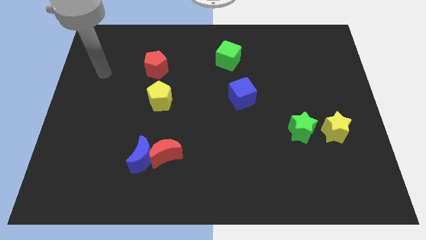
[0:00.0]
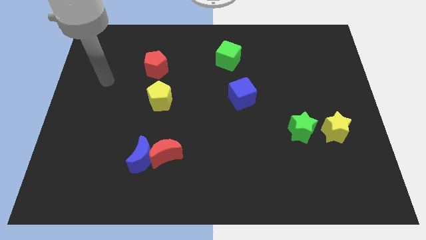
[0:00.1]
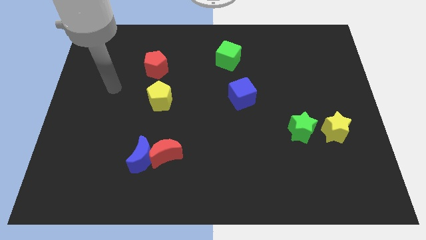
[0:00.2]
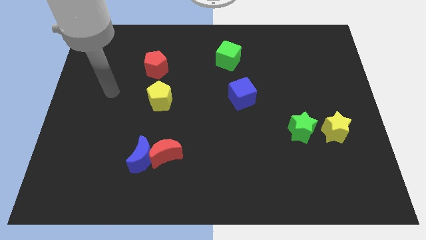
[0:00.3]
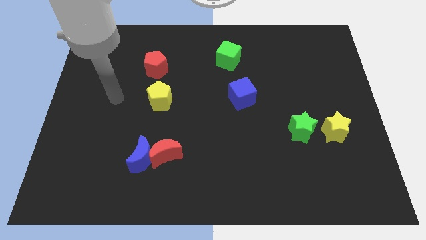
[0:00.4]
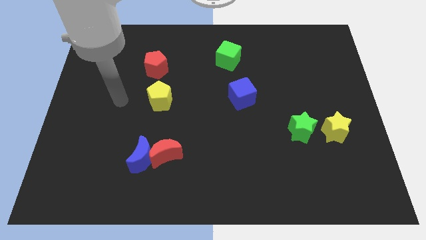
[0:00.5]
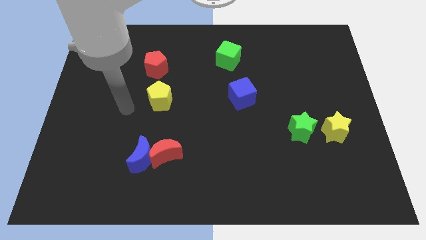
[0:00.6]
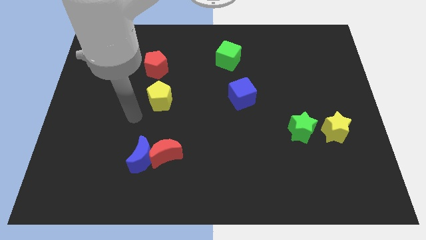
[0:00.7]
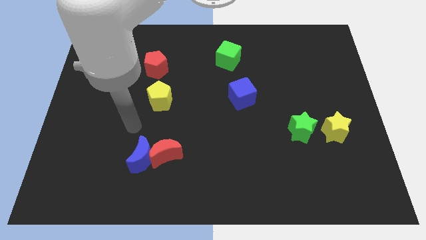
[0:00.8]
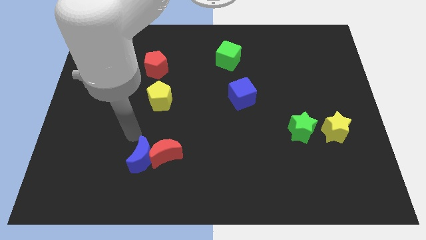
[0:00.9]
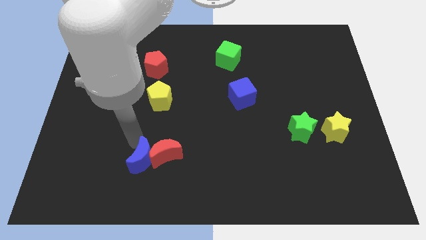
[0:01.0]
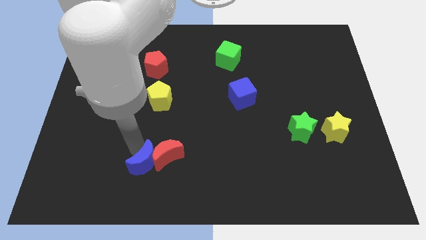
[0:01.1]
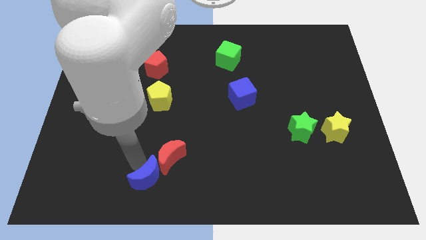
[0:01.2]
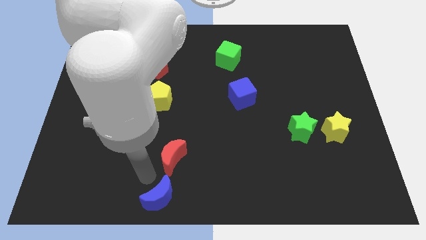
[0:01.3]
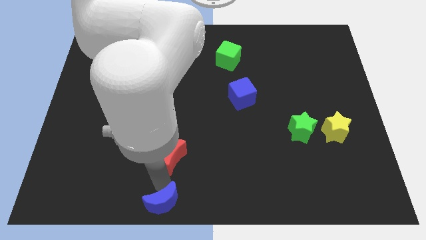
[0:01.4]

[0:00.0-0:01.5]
move the red moon away from the blue moon

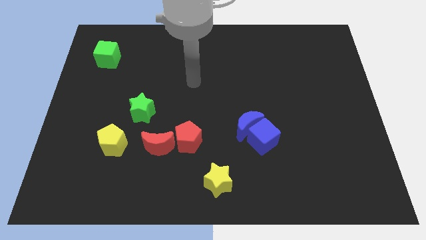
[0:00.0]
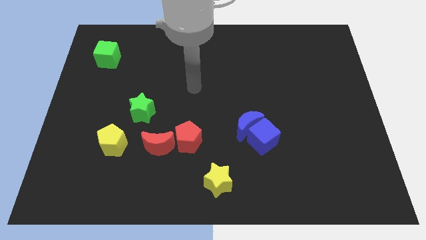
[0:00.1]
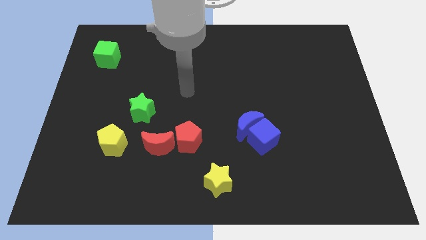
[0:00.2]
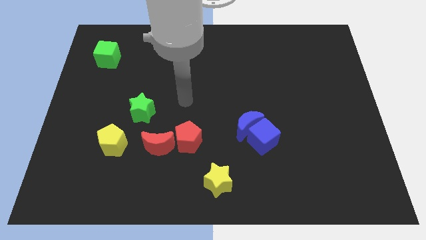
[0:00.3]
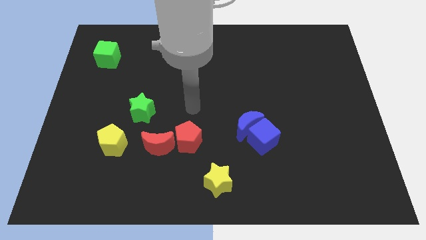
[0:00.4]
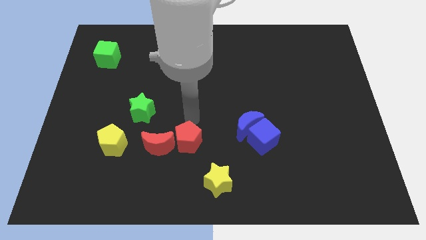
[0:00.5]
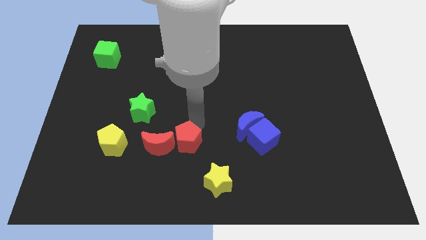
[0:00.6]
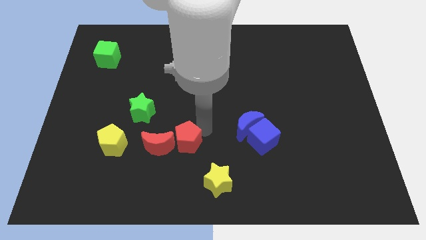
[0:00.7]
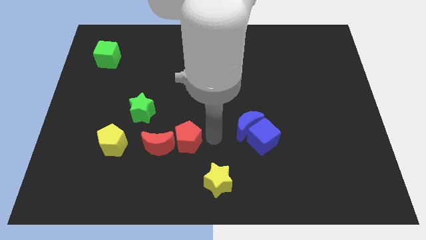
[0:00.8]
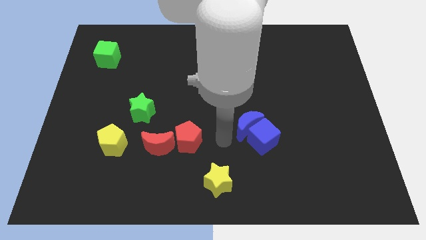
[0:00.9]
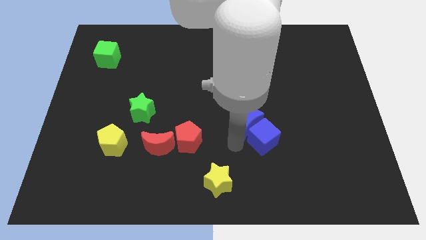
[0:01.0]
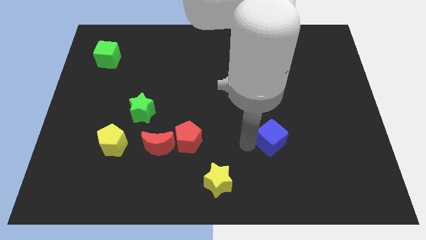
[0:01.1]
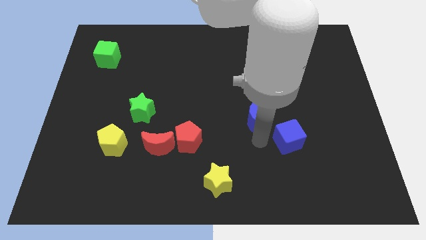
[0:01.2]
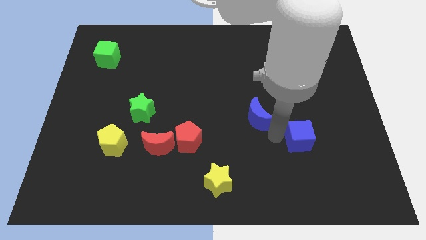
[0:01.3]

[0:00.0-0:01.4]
separate the blue moon from the blue cube

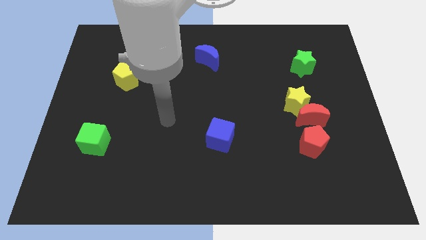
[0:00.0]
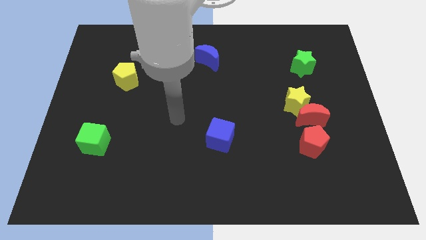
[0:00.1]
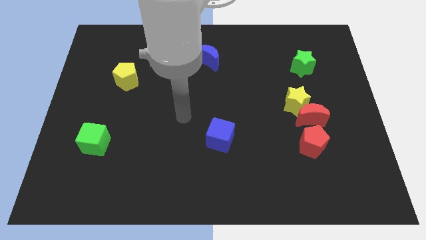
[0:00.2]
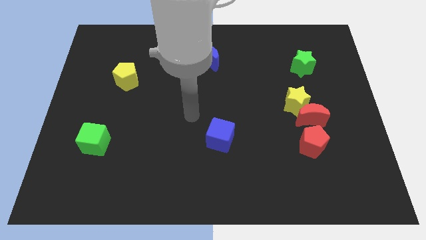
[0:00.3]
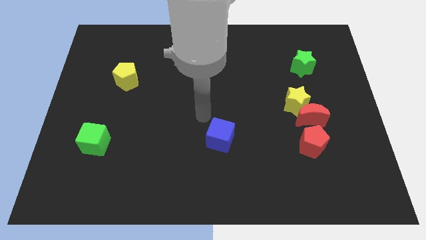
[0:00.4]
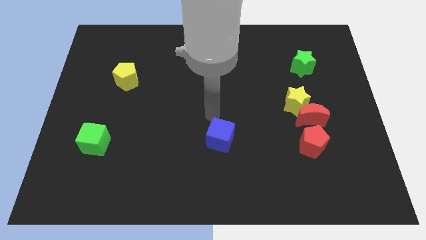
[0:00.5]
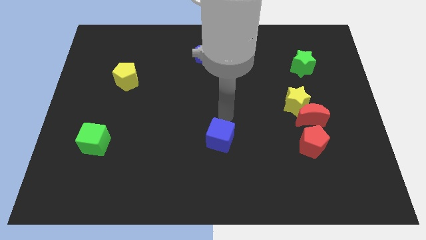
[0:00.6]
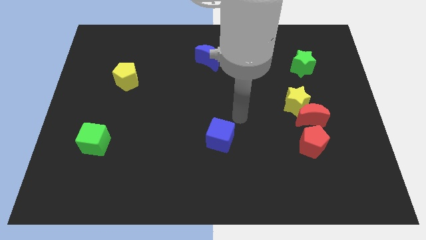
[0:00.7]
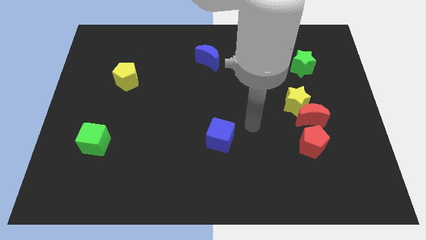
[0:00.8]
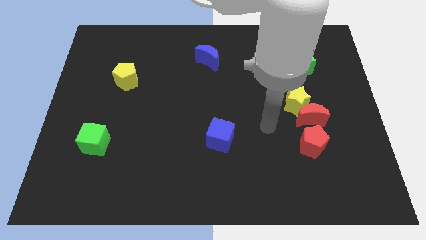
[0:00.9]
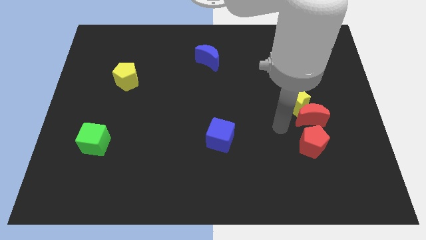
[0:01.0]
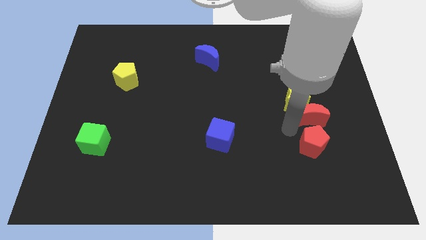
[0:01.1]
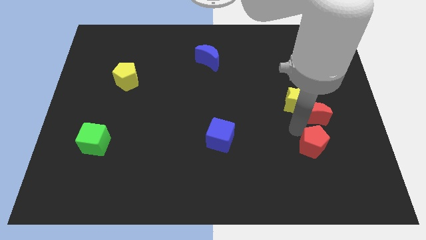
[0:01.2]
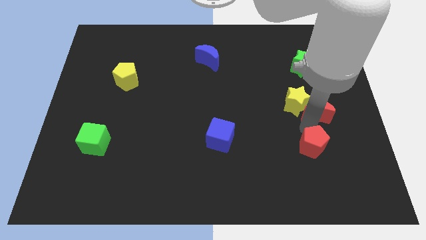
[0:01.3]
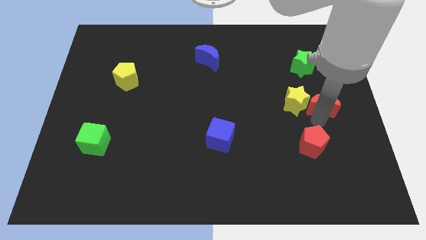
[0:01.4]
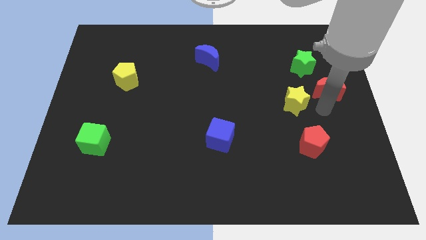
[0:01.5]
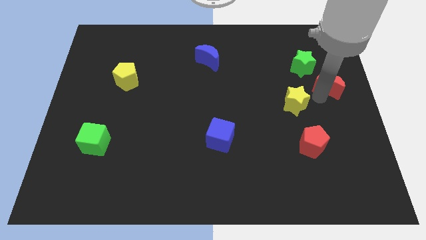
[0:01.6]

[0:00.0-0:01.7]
separate the yellow star from the red moon

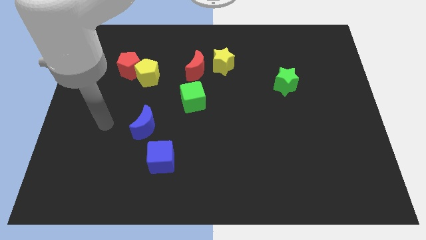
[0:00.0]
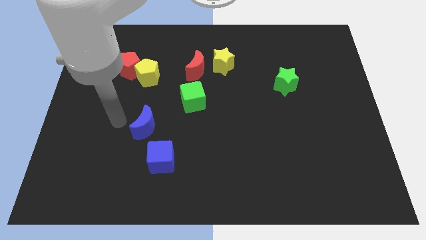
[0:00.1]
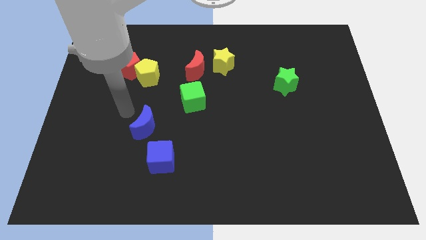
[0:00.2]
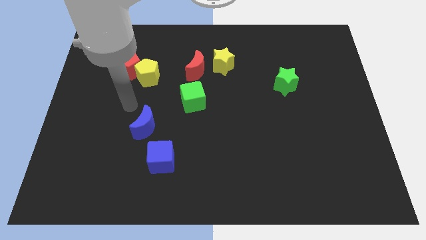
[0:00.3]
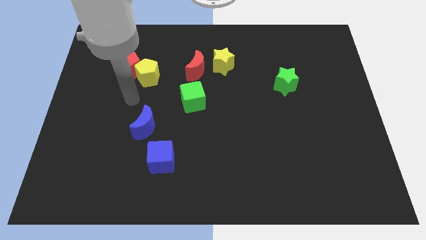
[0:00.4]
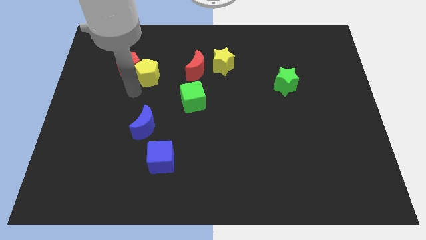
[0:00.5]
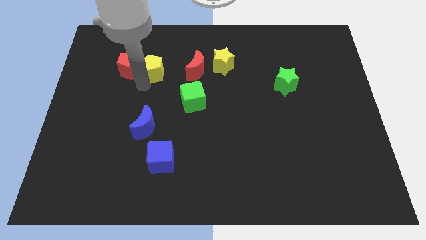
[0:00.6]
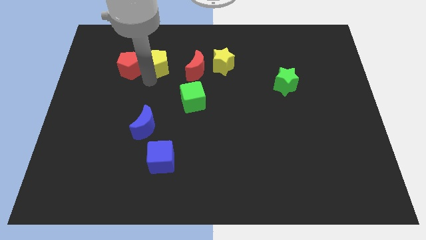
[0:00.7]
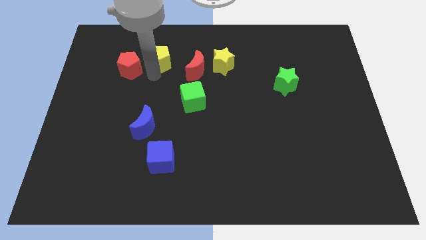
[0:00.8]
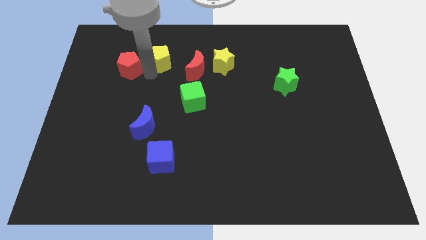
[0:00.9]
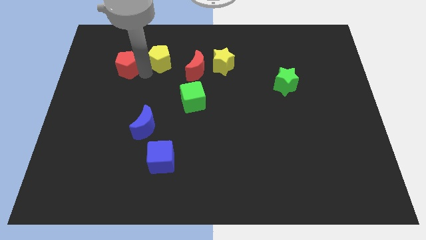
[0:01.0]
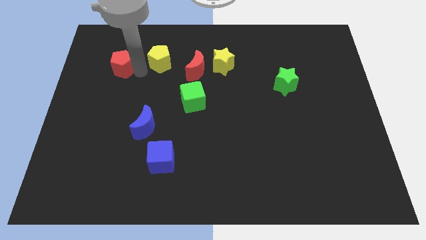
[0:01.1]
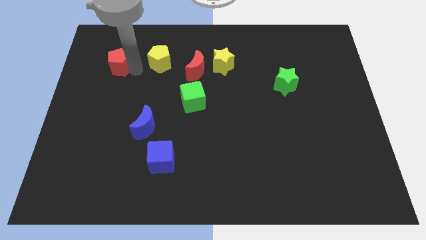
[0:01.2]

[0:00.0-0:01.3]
separate the red pentagon from the yellow pentagon

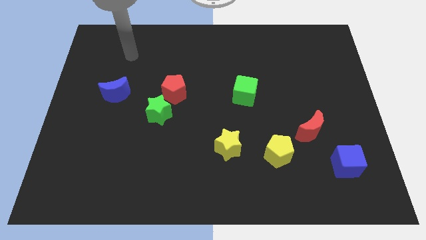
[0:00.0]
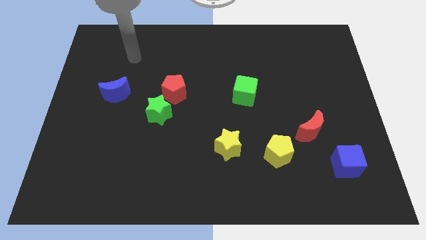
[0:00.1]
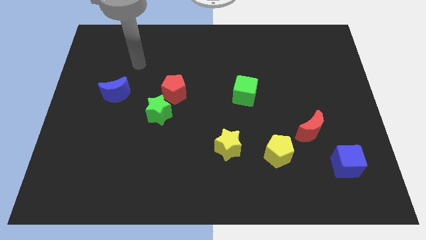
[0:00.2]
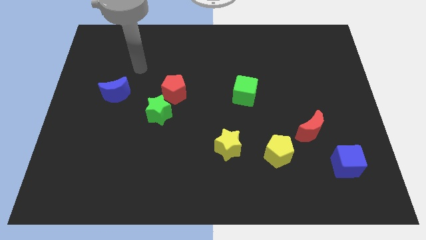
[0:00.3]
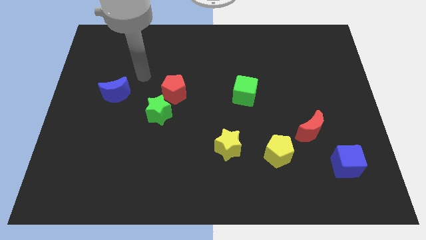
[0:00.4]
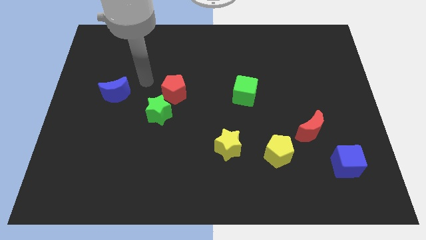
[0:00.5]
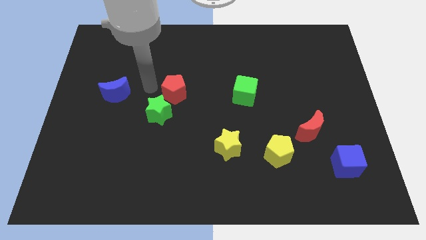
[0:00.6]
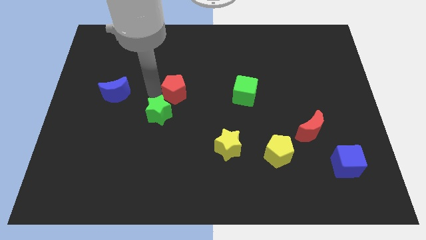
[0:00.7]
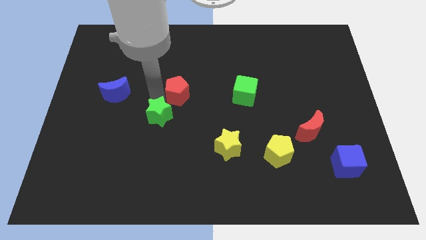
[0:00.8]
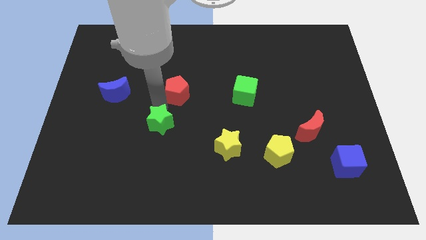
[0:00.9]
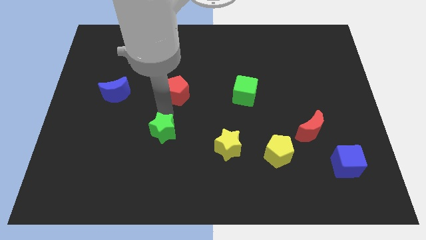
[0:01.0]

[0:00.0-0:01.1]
move the red pentagon away from the green star

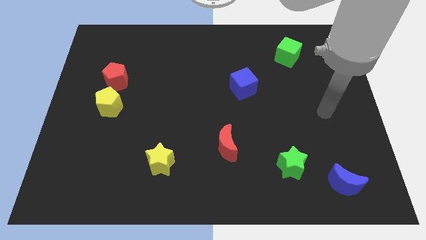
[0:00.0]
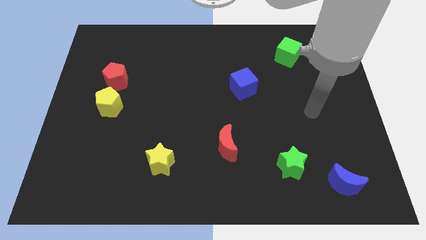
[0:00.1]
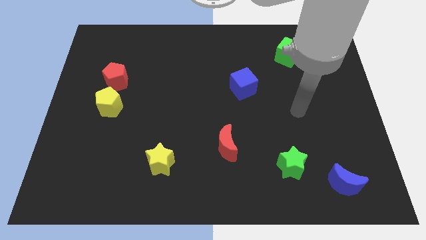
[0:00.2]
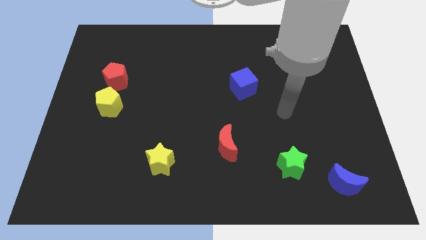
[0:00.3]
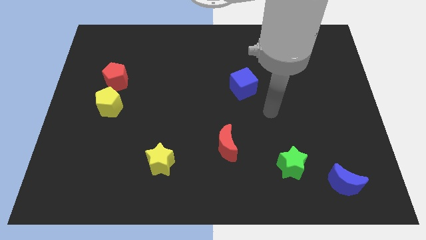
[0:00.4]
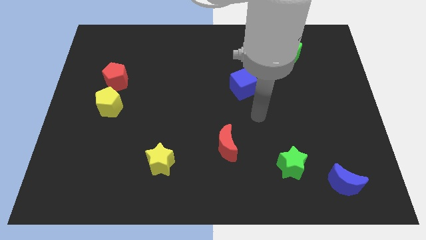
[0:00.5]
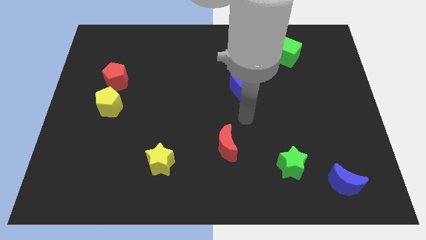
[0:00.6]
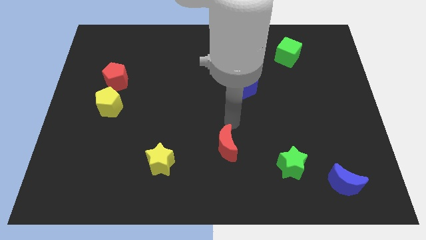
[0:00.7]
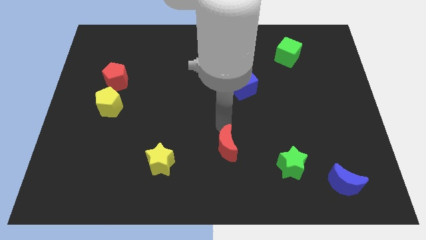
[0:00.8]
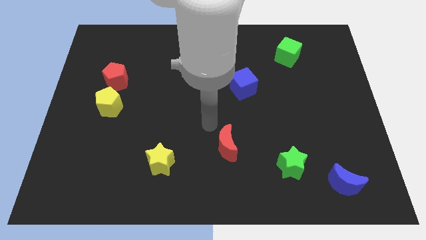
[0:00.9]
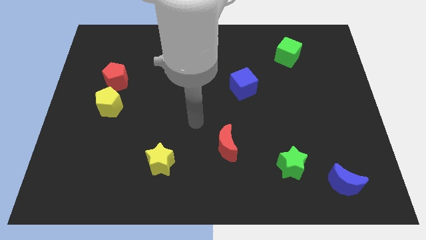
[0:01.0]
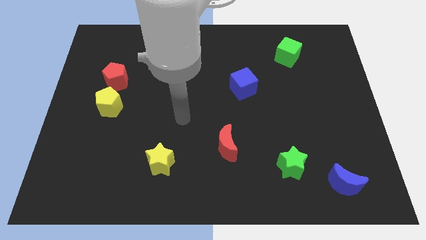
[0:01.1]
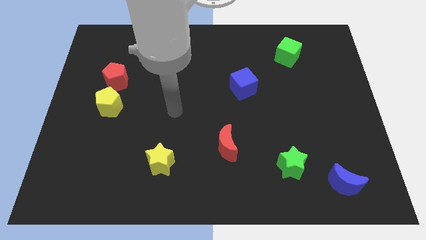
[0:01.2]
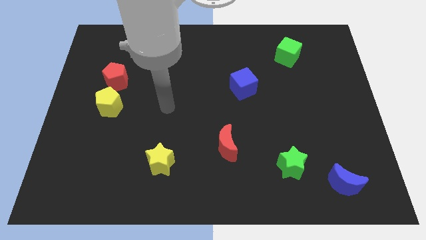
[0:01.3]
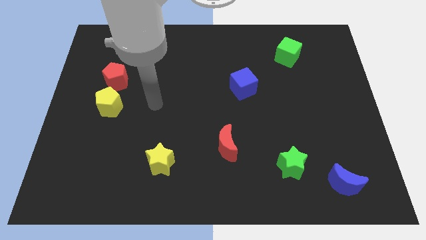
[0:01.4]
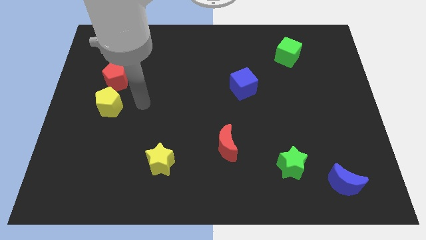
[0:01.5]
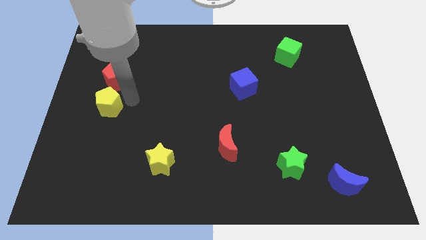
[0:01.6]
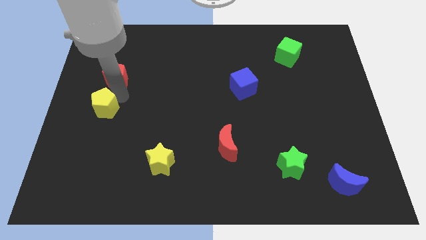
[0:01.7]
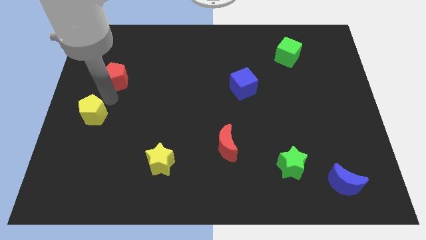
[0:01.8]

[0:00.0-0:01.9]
pull the red pentagon apart from the yellow pentagon

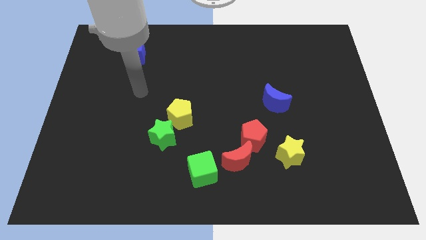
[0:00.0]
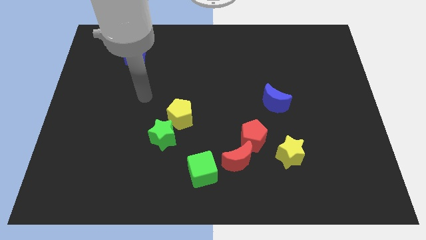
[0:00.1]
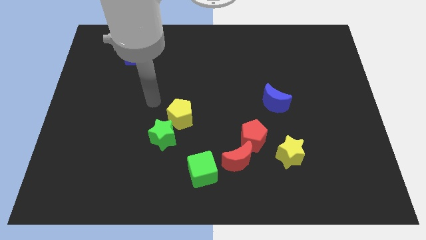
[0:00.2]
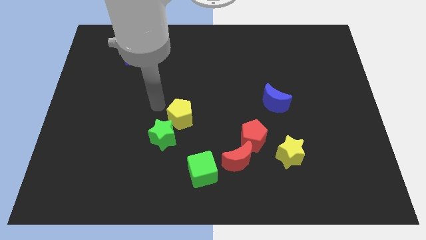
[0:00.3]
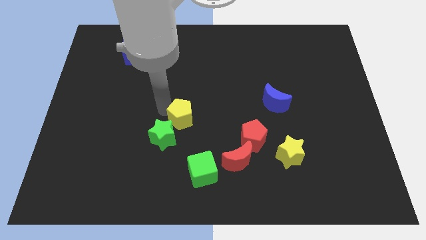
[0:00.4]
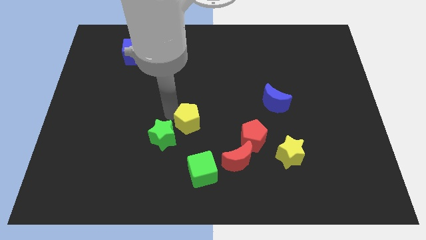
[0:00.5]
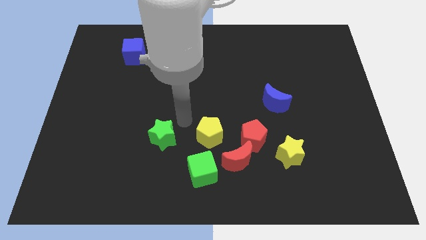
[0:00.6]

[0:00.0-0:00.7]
pull the green star apart from the yellow pentagon
